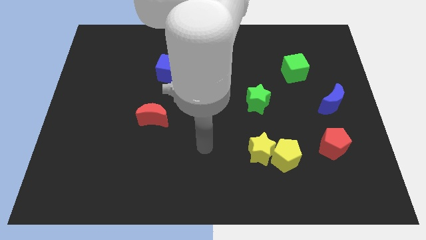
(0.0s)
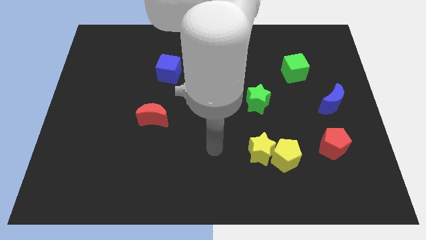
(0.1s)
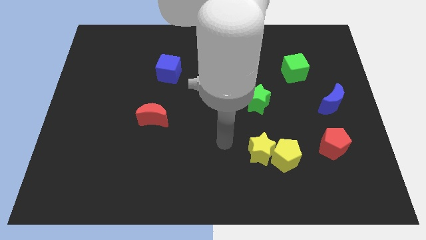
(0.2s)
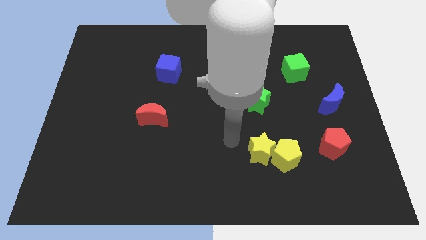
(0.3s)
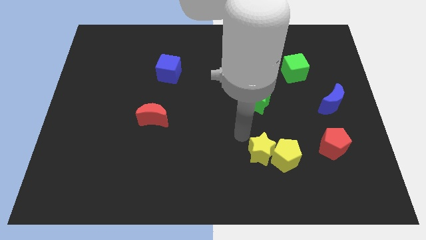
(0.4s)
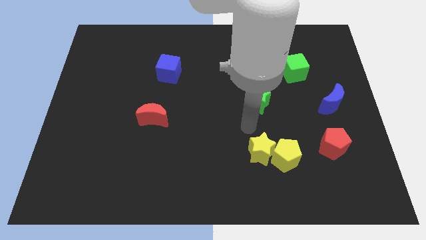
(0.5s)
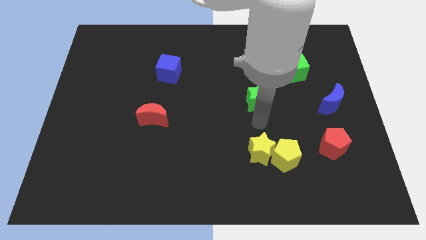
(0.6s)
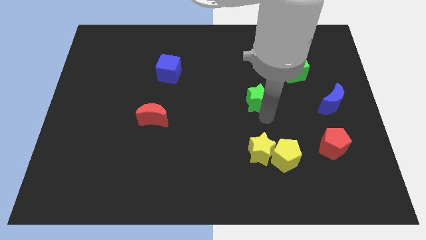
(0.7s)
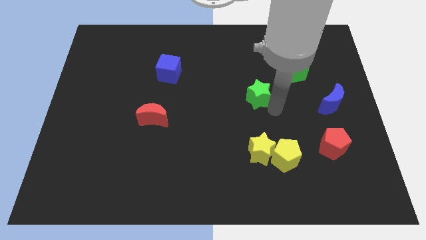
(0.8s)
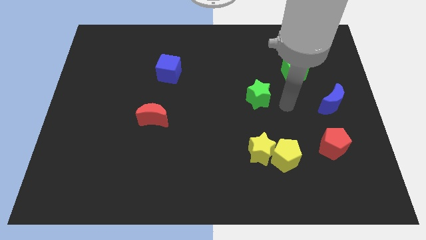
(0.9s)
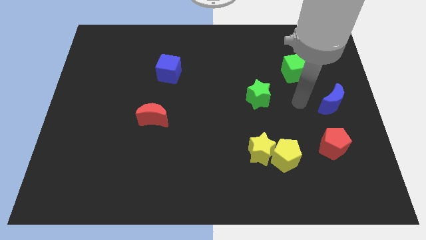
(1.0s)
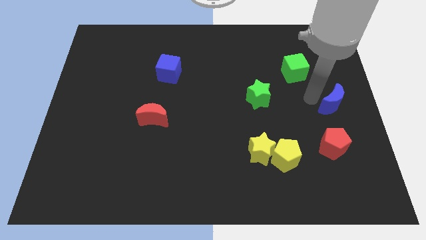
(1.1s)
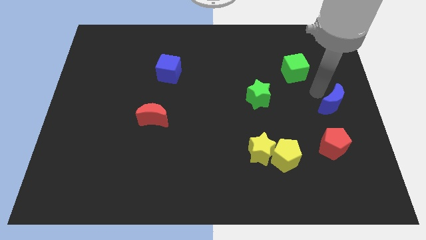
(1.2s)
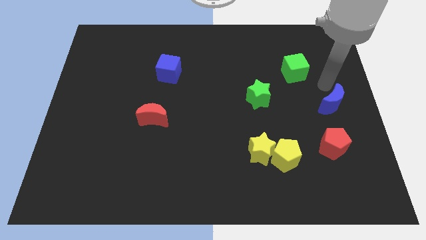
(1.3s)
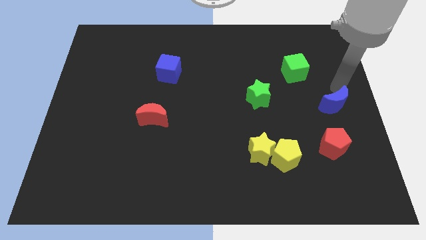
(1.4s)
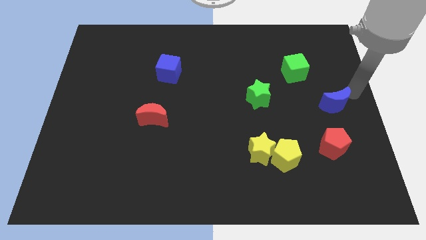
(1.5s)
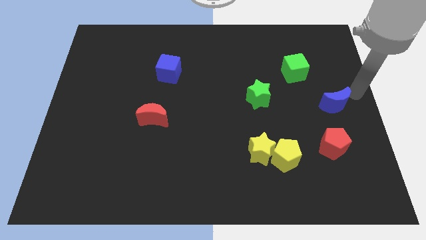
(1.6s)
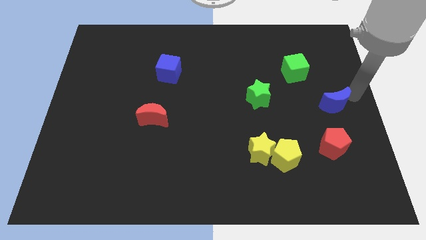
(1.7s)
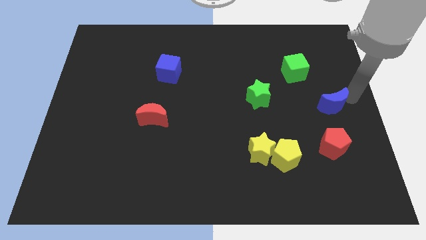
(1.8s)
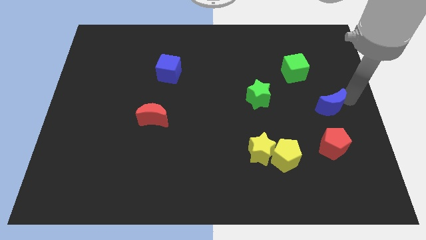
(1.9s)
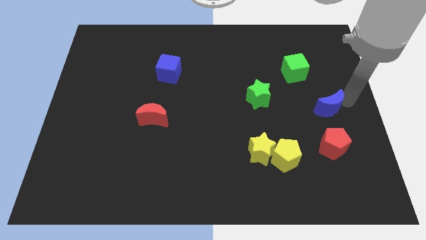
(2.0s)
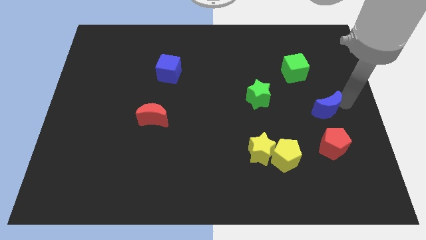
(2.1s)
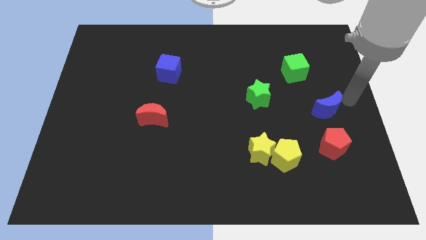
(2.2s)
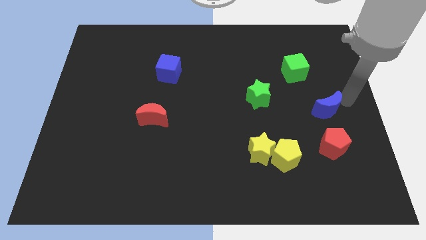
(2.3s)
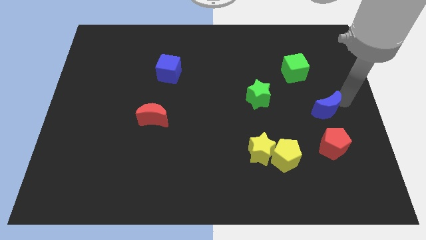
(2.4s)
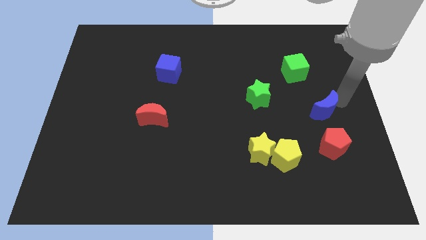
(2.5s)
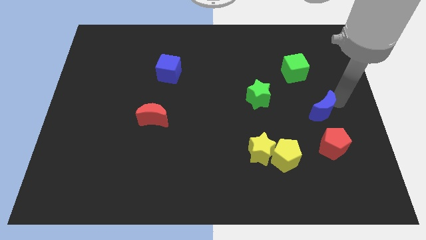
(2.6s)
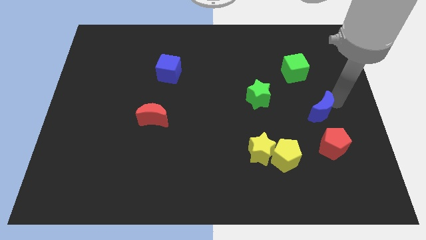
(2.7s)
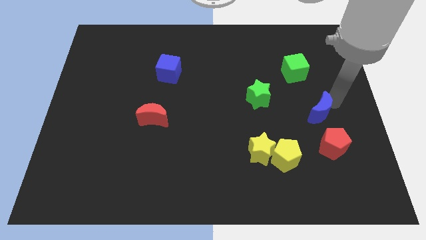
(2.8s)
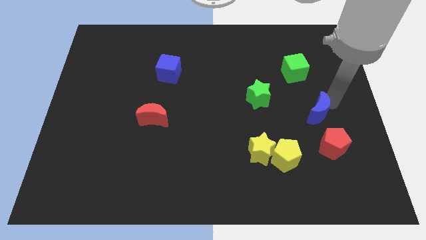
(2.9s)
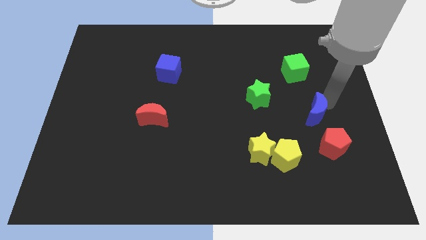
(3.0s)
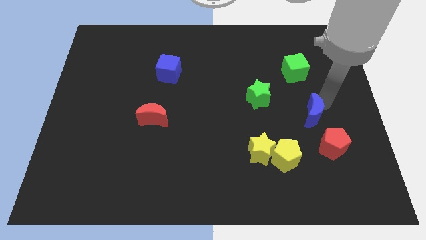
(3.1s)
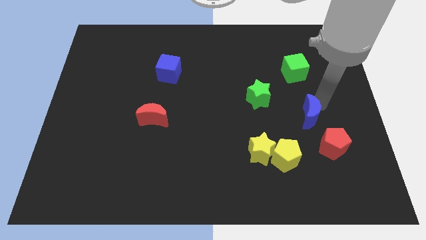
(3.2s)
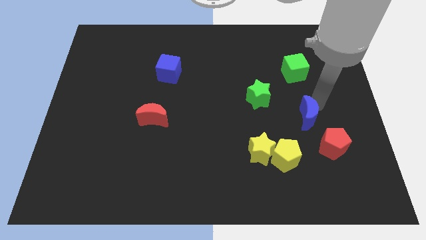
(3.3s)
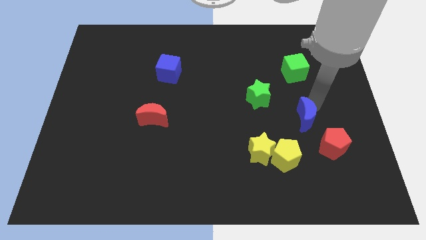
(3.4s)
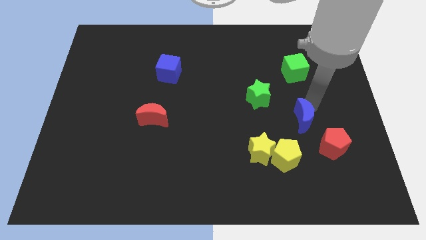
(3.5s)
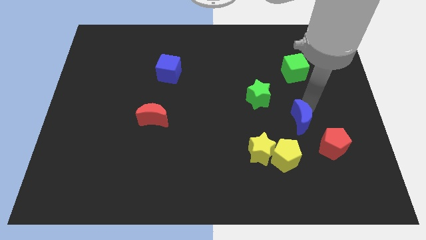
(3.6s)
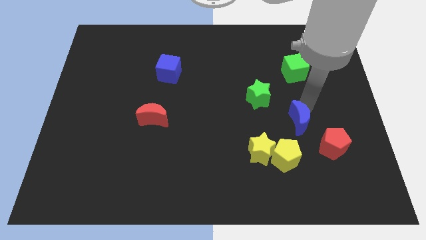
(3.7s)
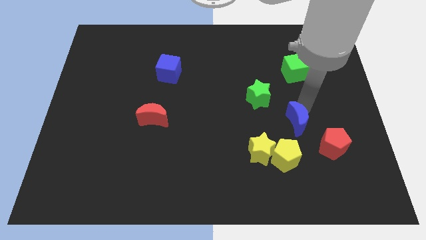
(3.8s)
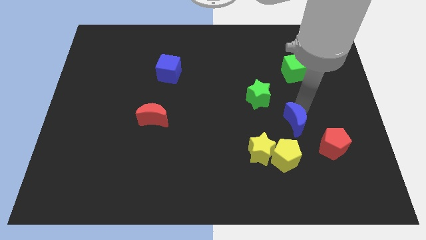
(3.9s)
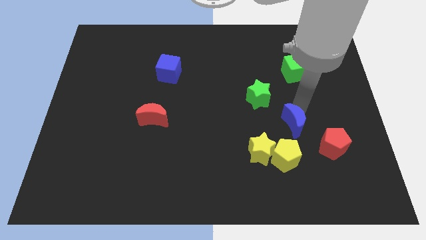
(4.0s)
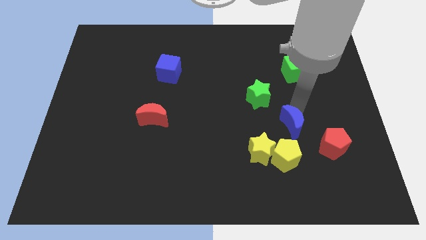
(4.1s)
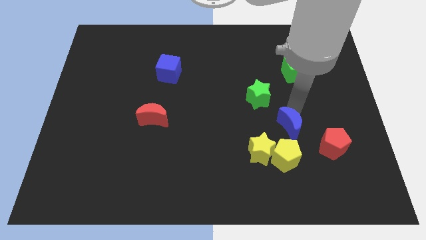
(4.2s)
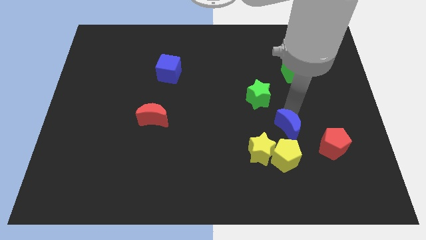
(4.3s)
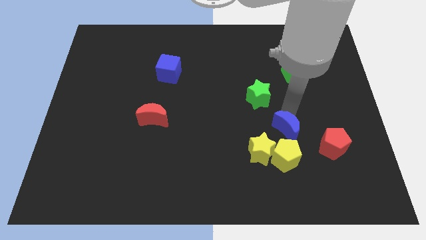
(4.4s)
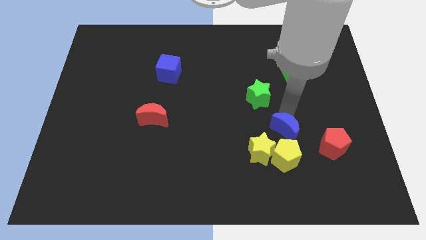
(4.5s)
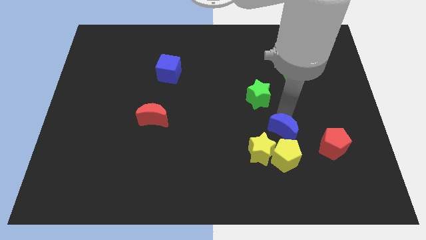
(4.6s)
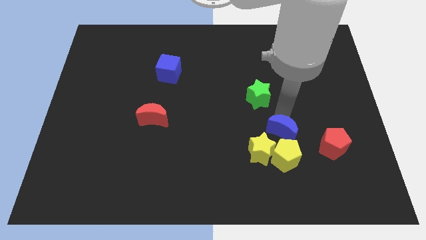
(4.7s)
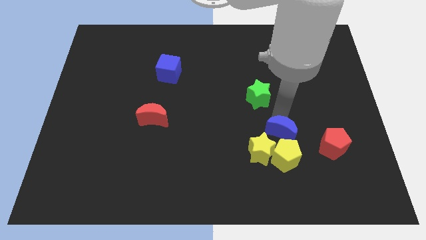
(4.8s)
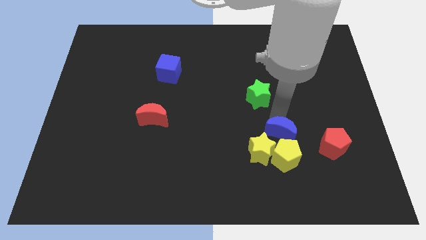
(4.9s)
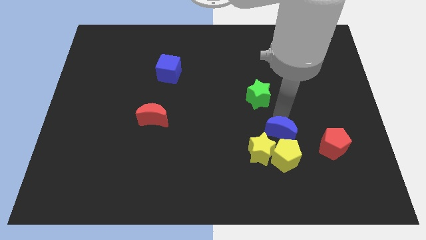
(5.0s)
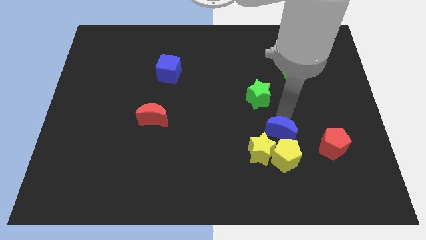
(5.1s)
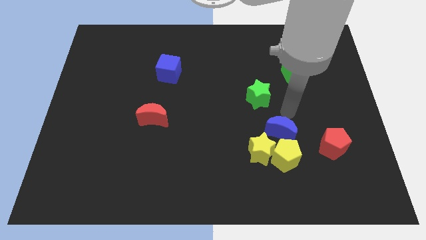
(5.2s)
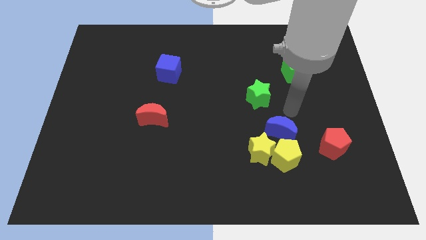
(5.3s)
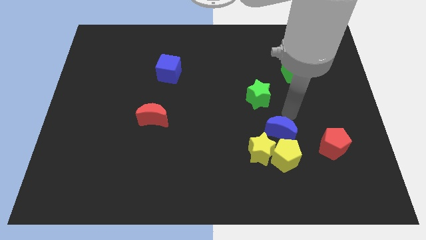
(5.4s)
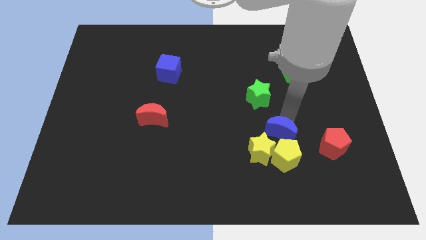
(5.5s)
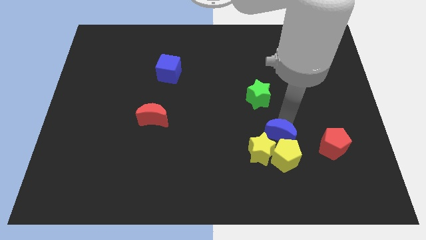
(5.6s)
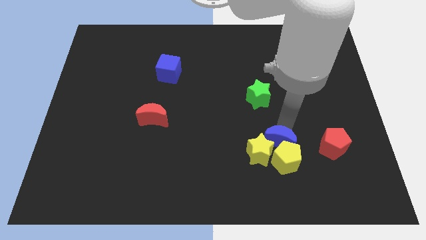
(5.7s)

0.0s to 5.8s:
move the blue moon close to the yellow star

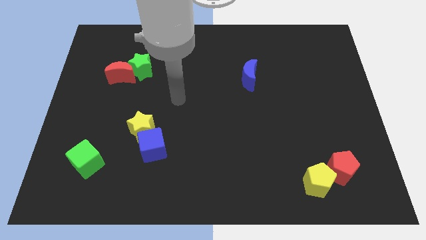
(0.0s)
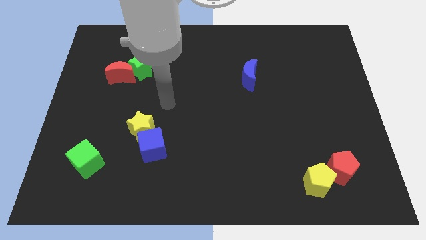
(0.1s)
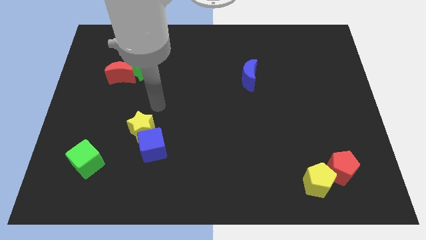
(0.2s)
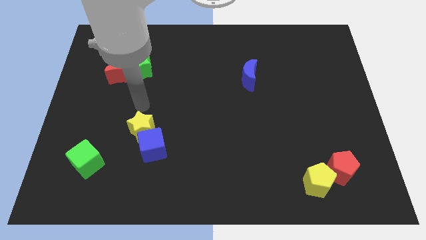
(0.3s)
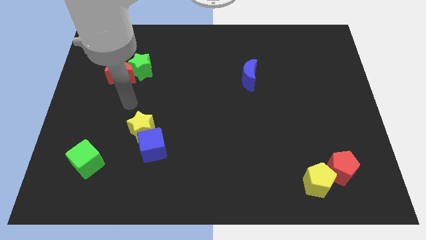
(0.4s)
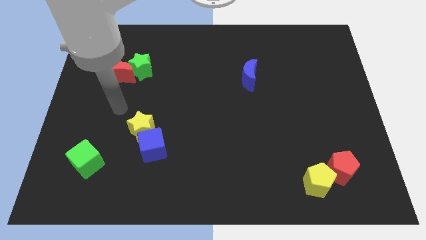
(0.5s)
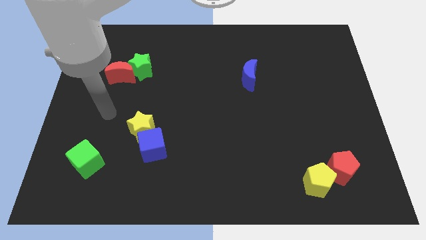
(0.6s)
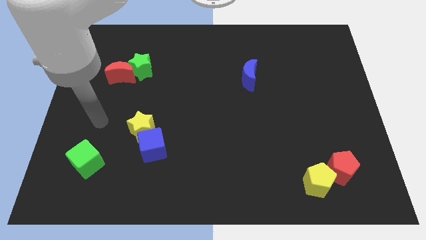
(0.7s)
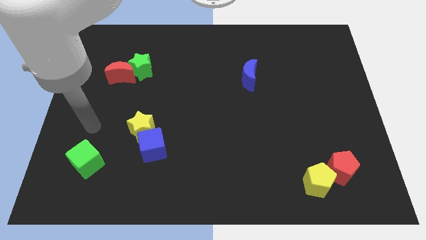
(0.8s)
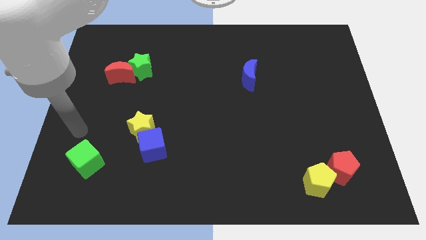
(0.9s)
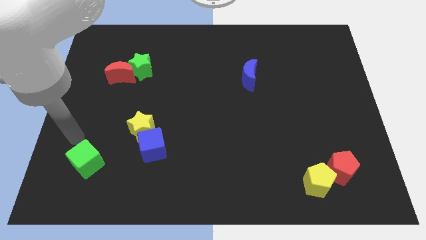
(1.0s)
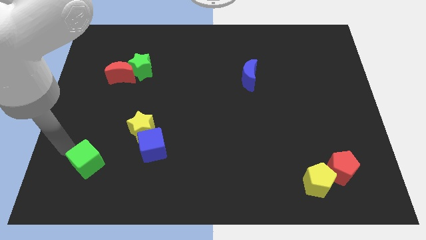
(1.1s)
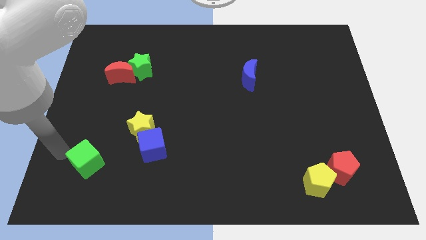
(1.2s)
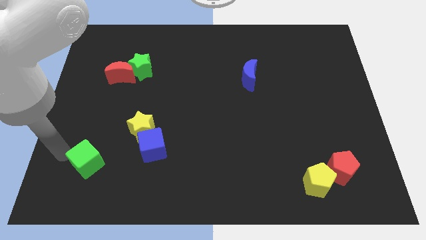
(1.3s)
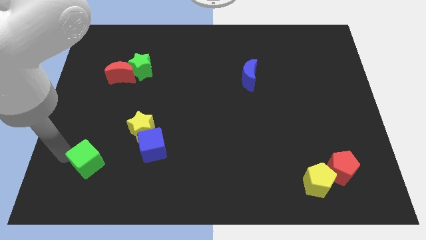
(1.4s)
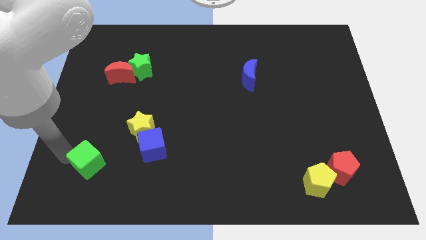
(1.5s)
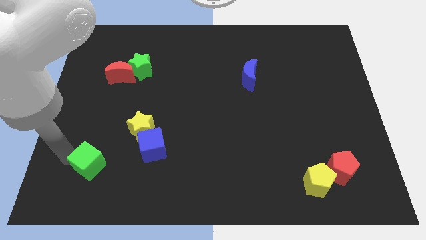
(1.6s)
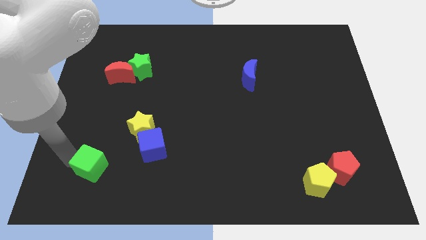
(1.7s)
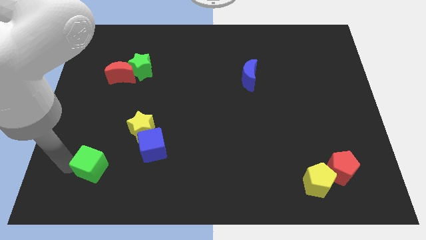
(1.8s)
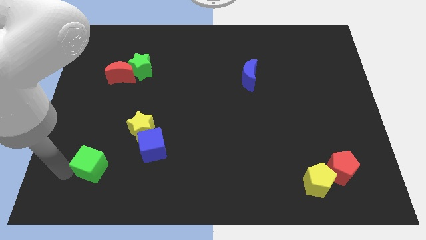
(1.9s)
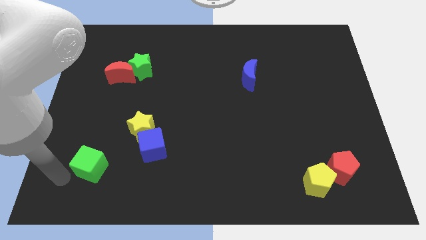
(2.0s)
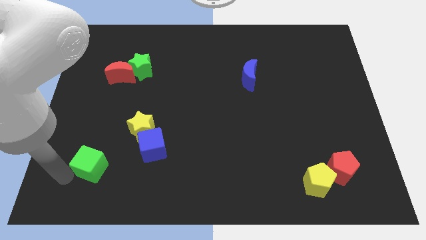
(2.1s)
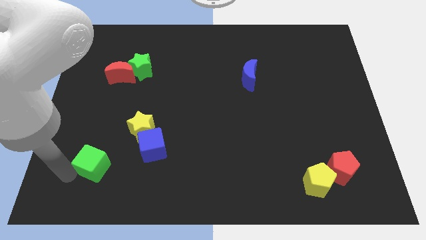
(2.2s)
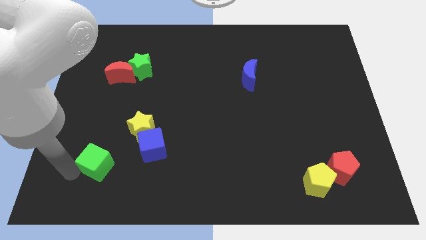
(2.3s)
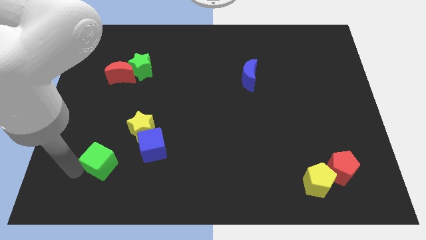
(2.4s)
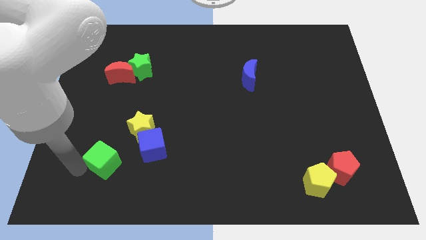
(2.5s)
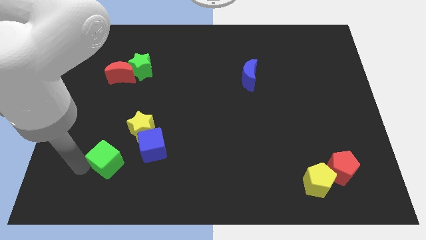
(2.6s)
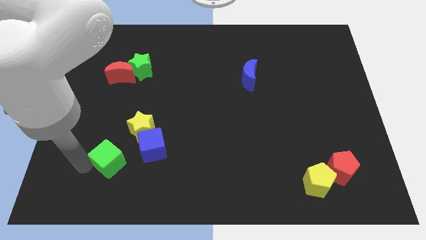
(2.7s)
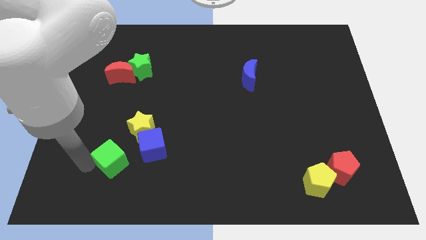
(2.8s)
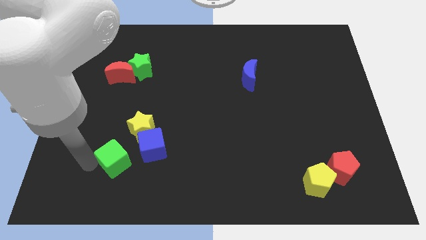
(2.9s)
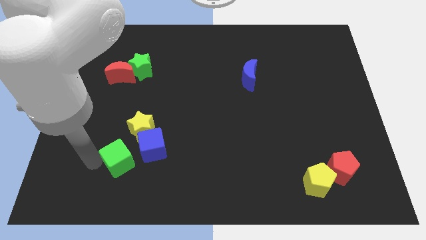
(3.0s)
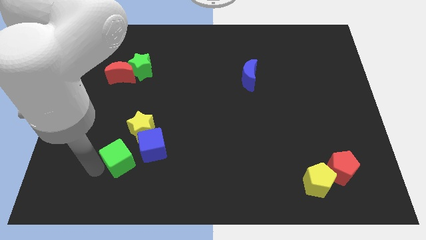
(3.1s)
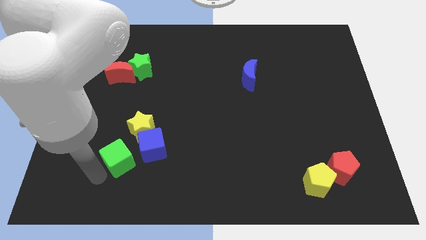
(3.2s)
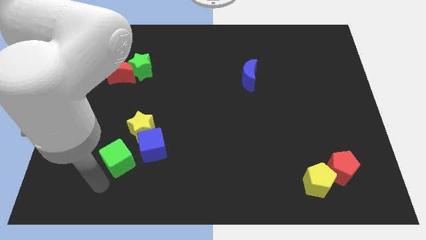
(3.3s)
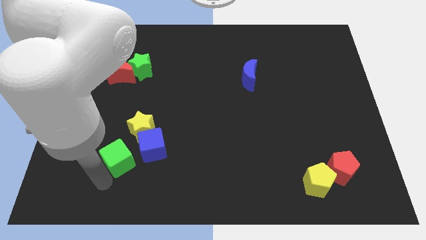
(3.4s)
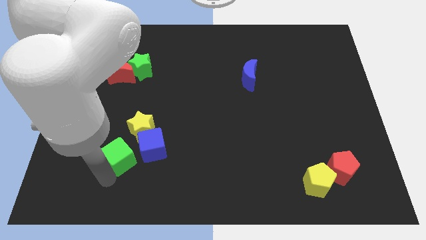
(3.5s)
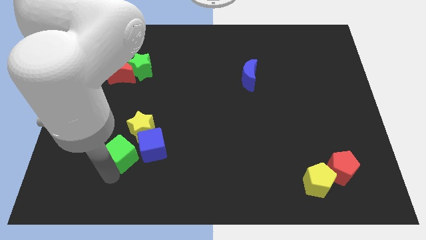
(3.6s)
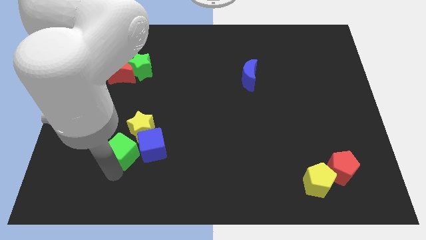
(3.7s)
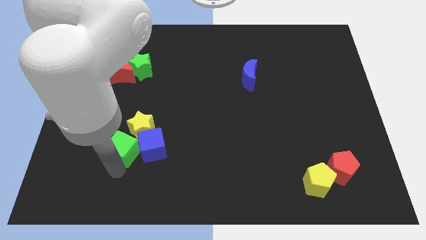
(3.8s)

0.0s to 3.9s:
put the green cube close to the yellow star
